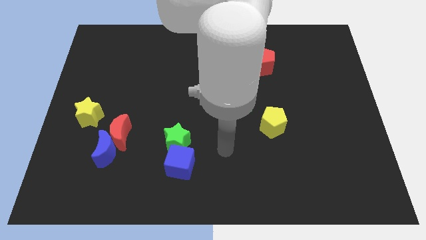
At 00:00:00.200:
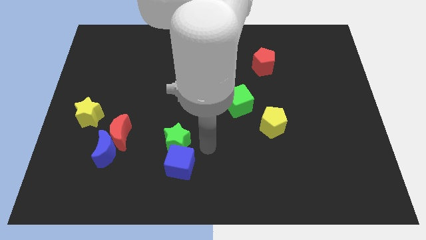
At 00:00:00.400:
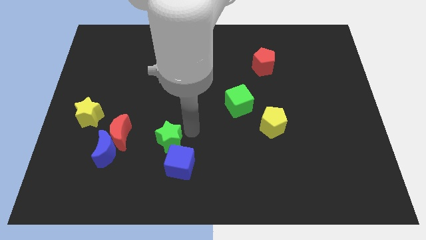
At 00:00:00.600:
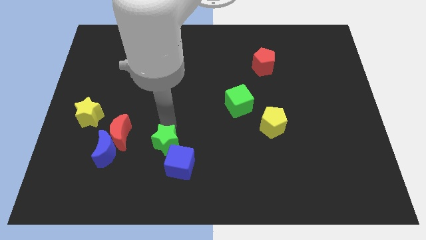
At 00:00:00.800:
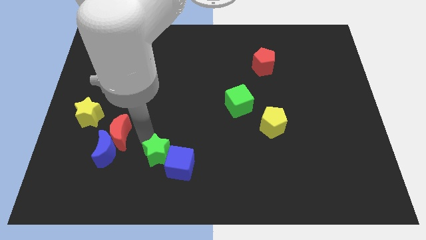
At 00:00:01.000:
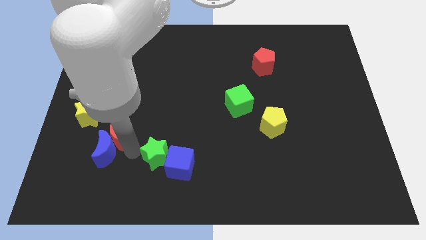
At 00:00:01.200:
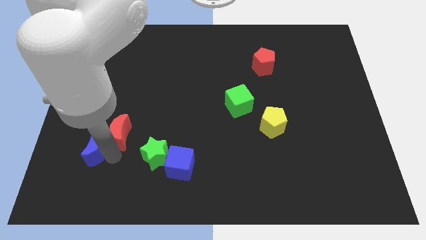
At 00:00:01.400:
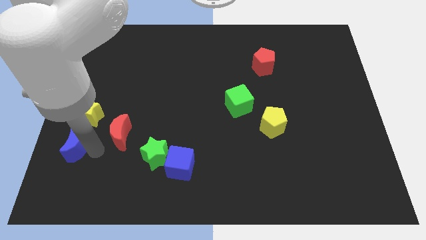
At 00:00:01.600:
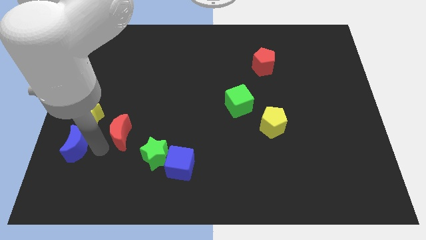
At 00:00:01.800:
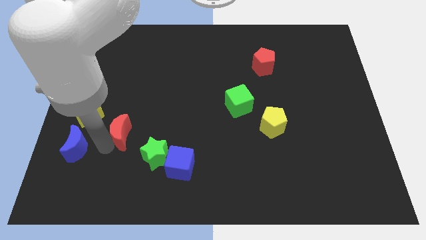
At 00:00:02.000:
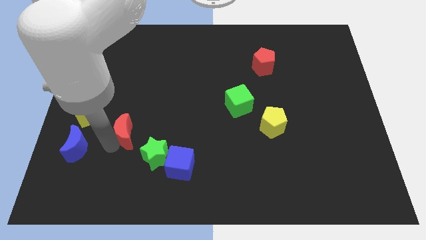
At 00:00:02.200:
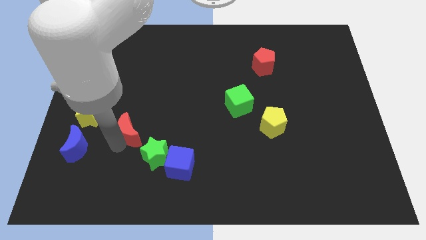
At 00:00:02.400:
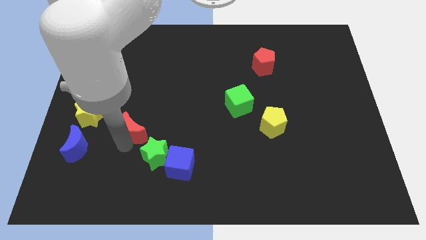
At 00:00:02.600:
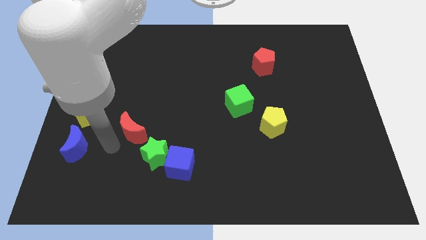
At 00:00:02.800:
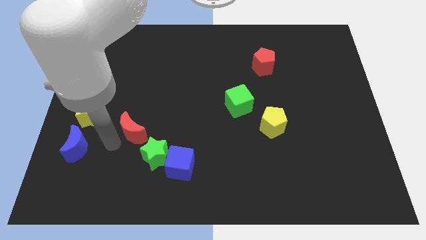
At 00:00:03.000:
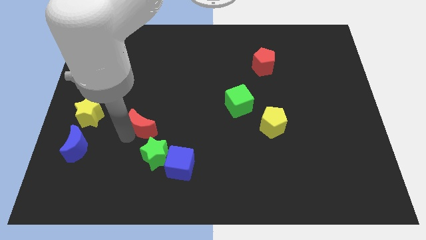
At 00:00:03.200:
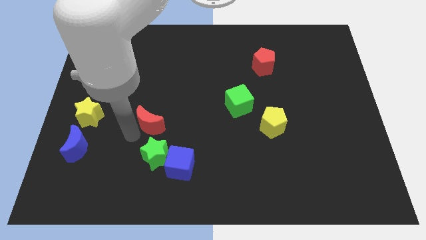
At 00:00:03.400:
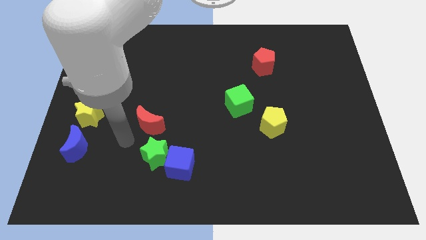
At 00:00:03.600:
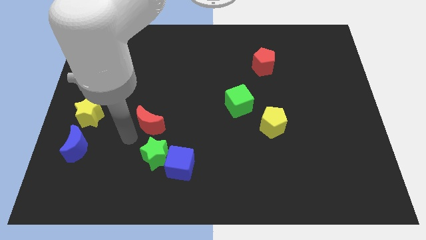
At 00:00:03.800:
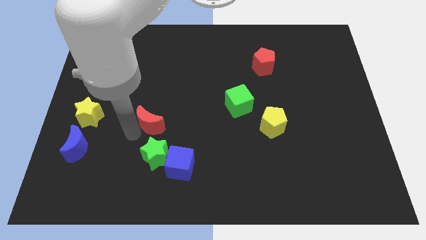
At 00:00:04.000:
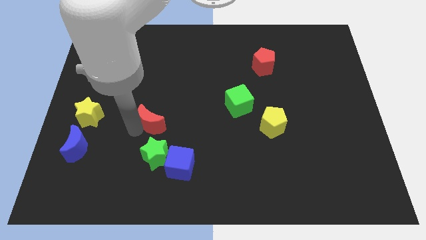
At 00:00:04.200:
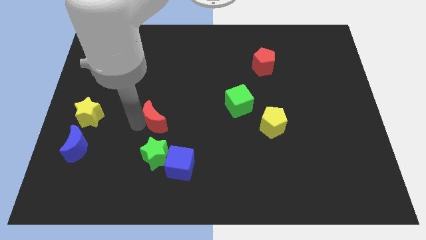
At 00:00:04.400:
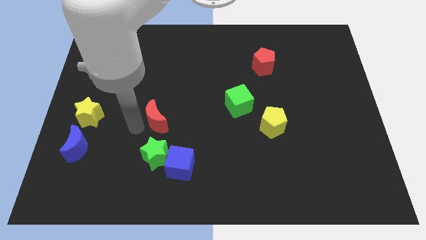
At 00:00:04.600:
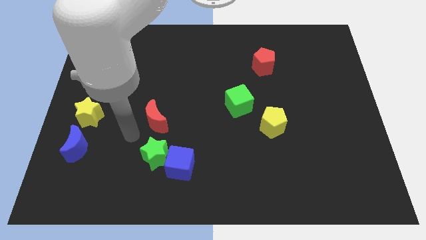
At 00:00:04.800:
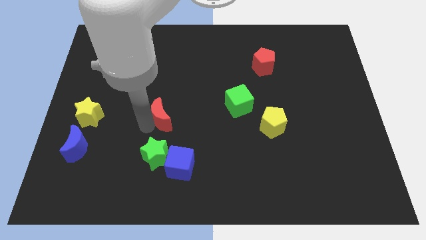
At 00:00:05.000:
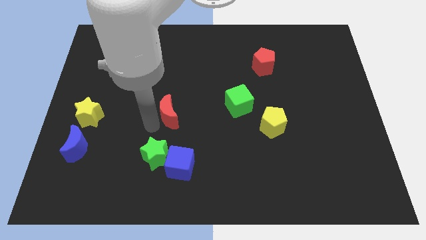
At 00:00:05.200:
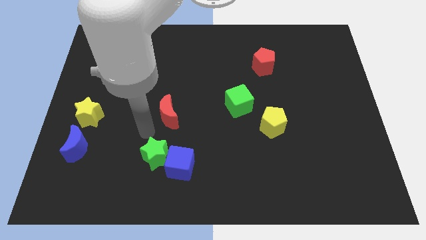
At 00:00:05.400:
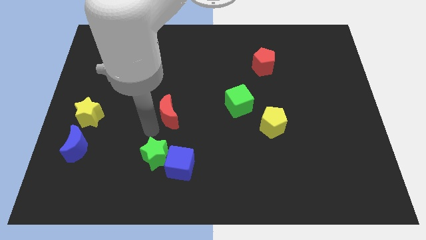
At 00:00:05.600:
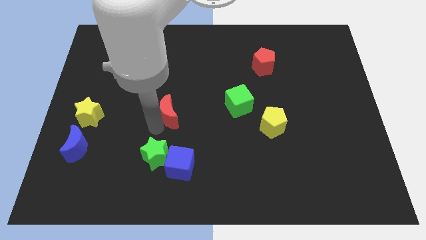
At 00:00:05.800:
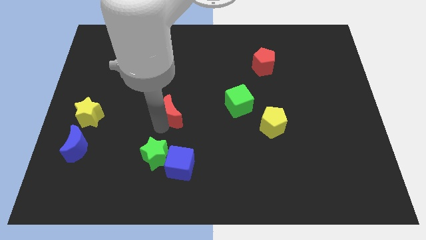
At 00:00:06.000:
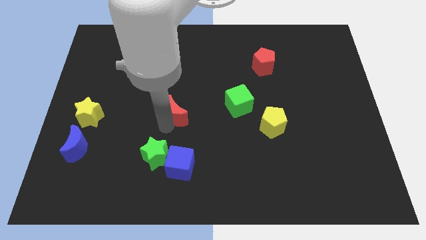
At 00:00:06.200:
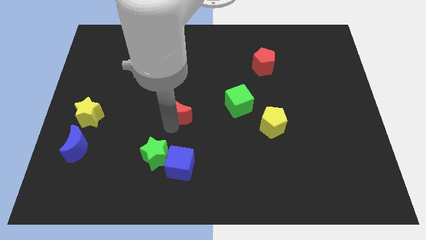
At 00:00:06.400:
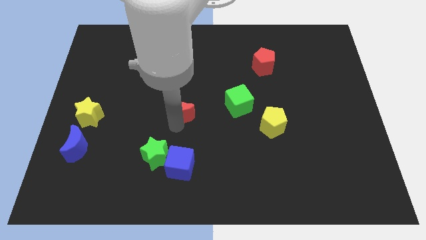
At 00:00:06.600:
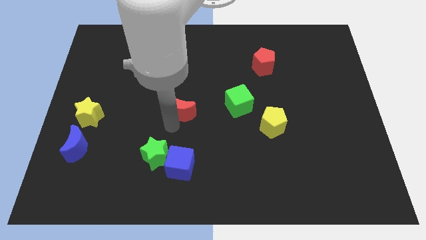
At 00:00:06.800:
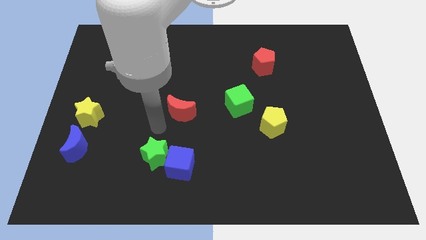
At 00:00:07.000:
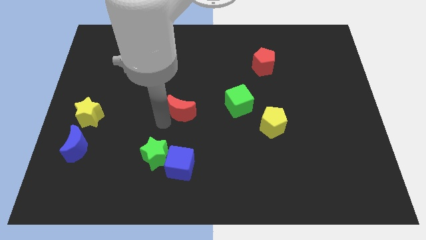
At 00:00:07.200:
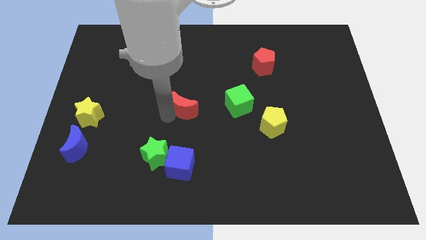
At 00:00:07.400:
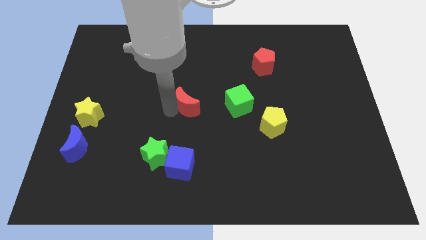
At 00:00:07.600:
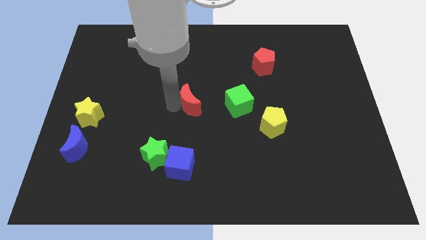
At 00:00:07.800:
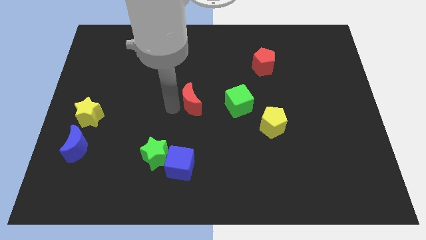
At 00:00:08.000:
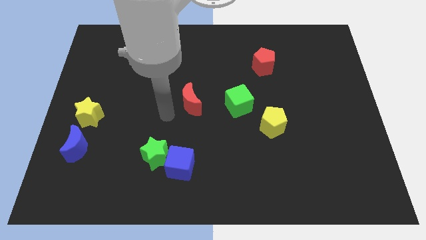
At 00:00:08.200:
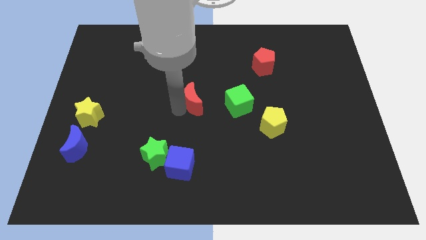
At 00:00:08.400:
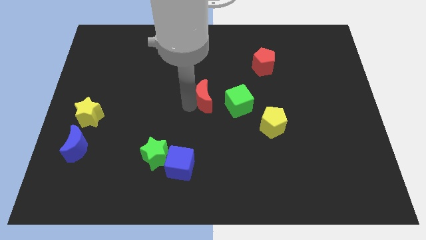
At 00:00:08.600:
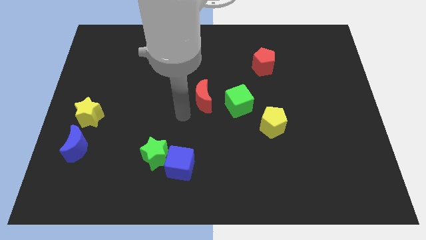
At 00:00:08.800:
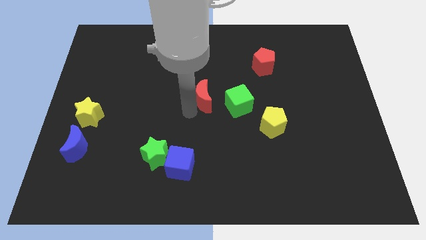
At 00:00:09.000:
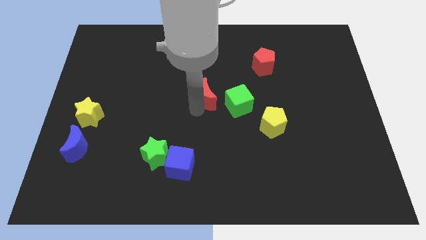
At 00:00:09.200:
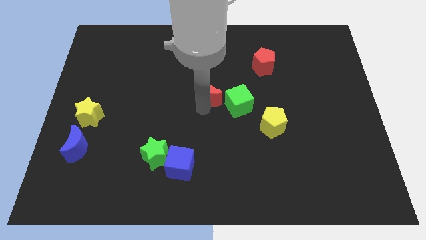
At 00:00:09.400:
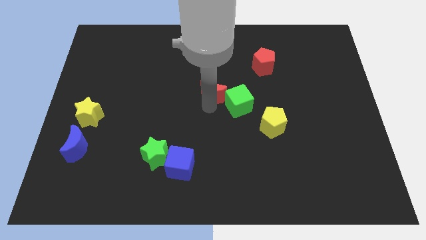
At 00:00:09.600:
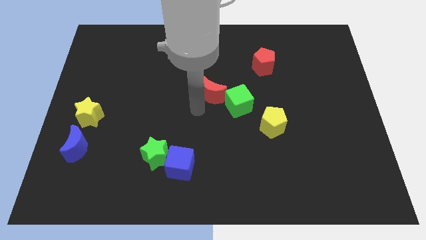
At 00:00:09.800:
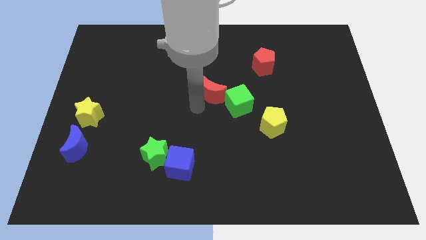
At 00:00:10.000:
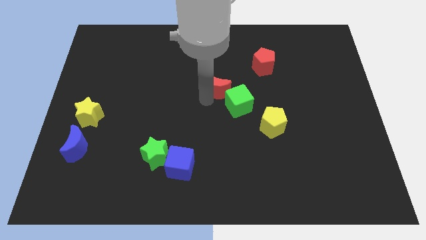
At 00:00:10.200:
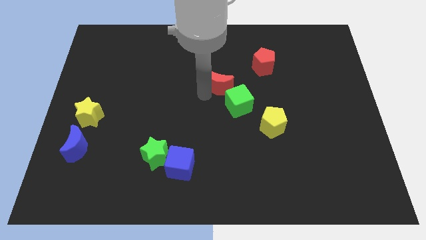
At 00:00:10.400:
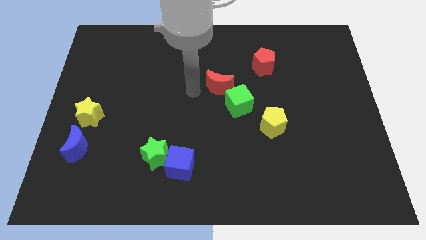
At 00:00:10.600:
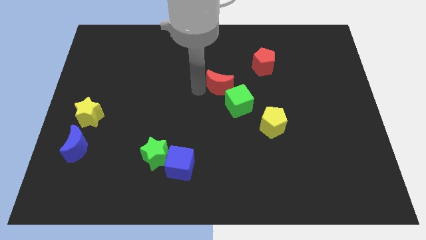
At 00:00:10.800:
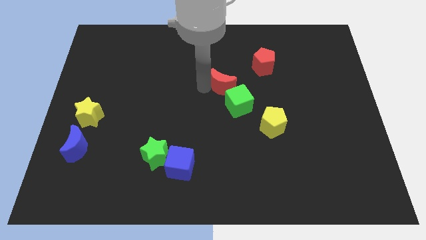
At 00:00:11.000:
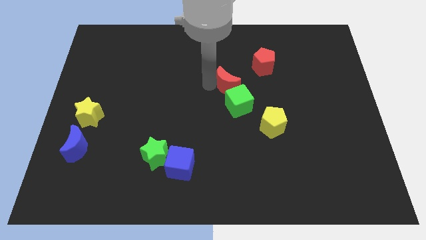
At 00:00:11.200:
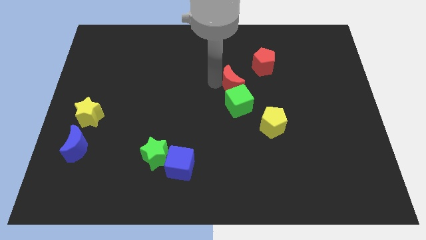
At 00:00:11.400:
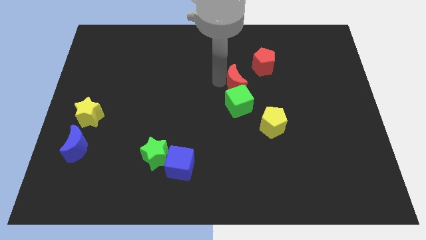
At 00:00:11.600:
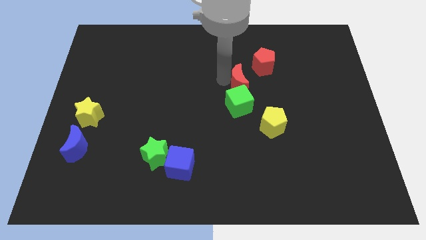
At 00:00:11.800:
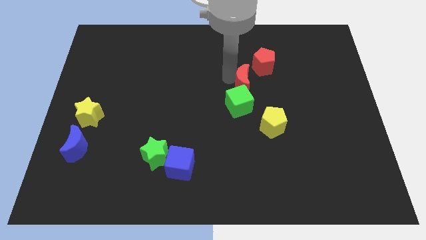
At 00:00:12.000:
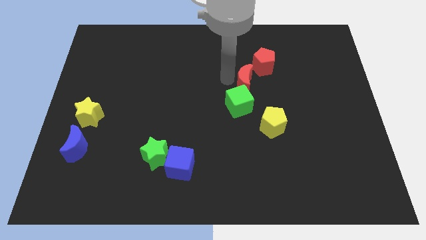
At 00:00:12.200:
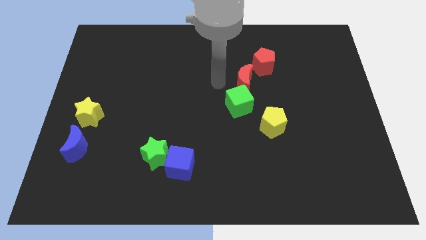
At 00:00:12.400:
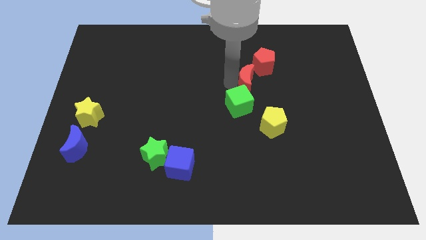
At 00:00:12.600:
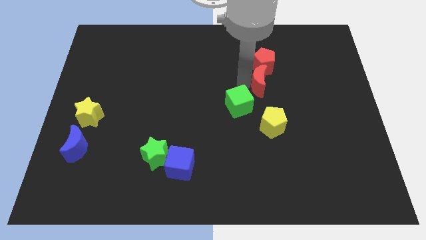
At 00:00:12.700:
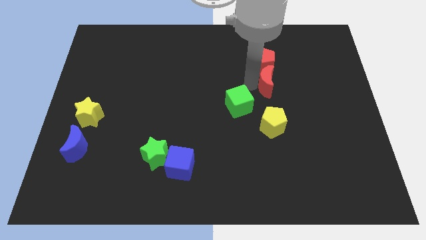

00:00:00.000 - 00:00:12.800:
put the red moon diagonally down and to the right of the red pentagon
